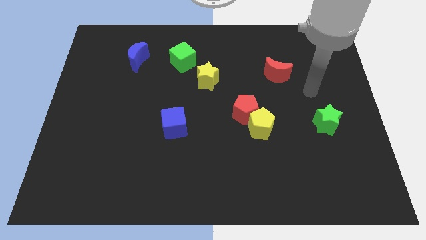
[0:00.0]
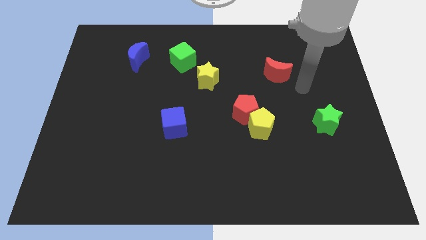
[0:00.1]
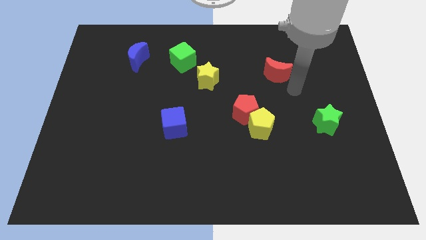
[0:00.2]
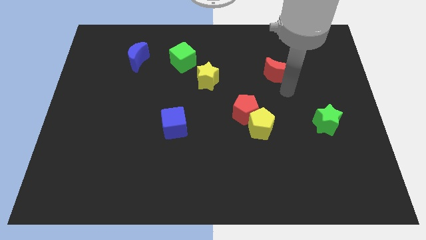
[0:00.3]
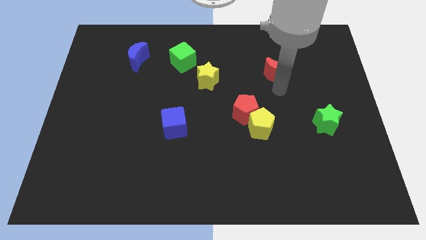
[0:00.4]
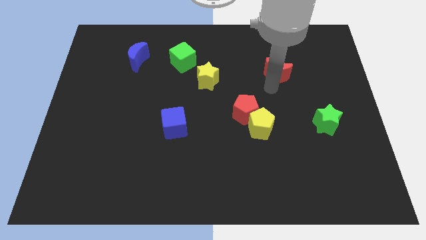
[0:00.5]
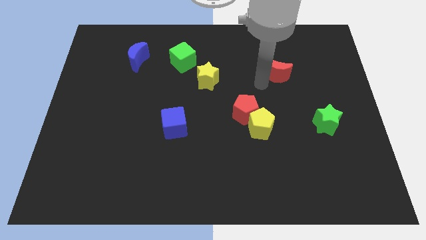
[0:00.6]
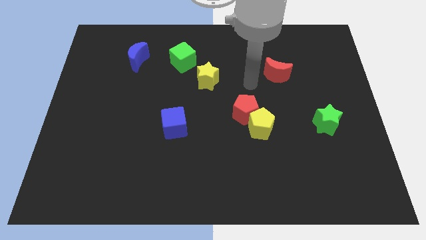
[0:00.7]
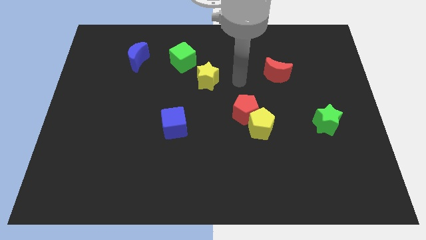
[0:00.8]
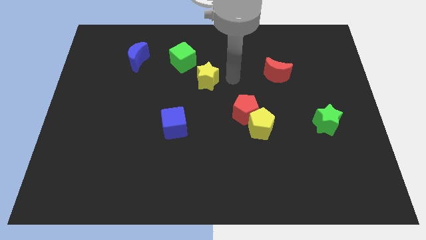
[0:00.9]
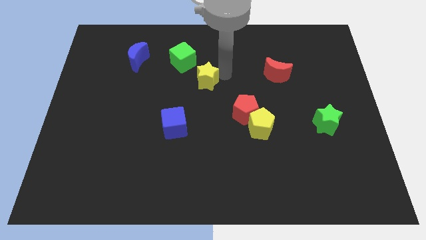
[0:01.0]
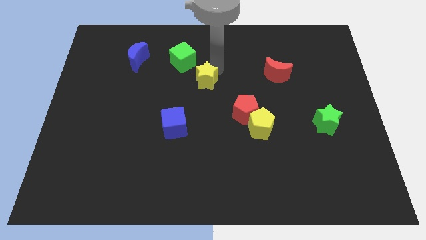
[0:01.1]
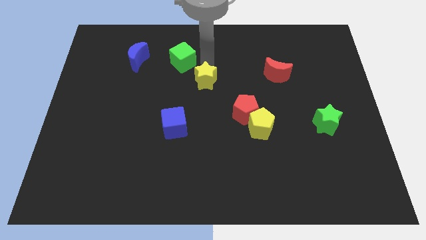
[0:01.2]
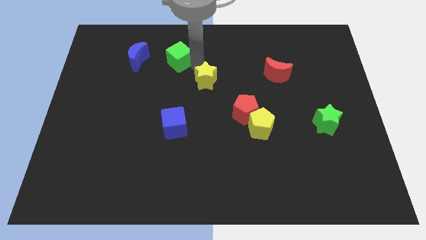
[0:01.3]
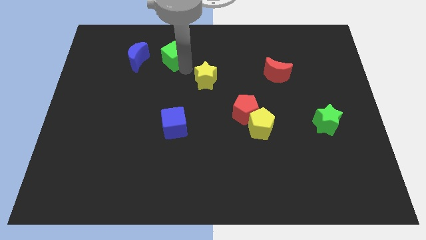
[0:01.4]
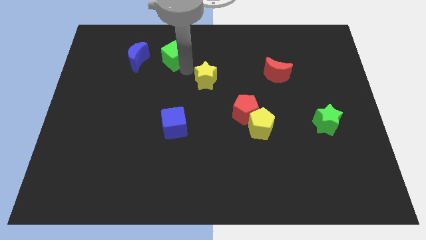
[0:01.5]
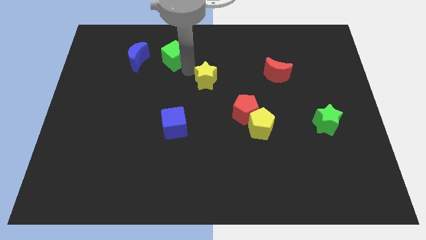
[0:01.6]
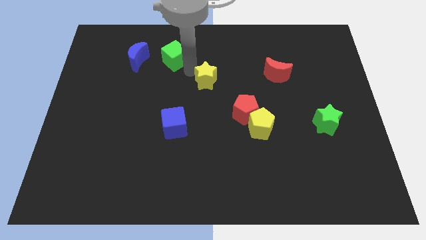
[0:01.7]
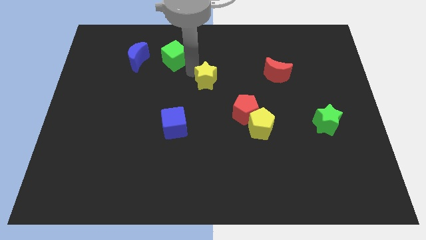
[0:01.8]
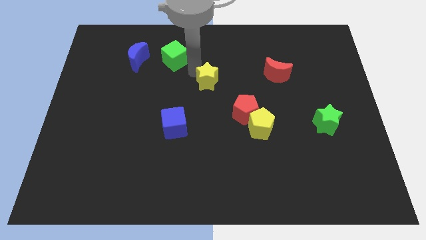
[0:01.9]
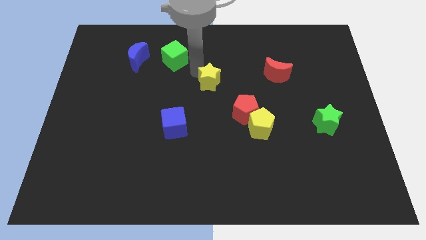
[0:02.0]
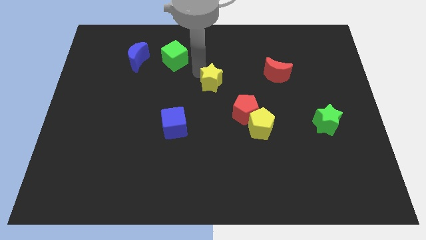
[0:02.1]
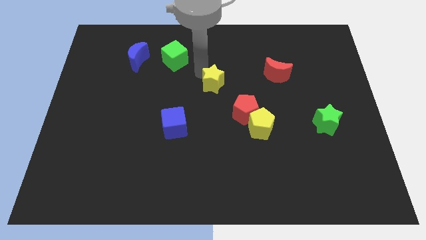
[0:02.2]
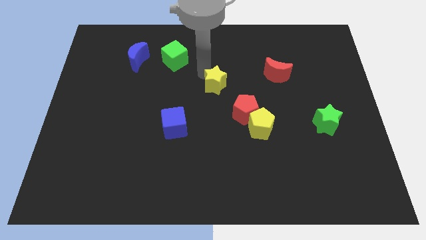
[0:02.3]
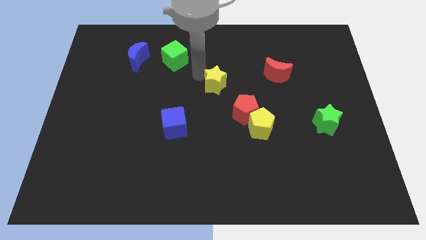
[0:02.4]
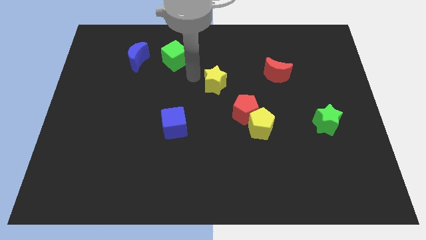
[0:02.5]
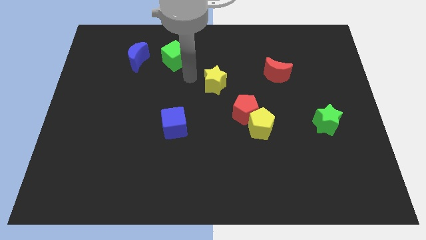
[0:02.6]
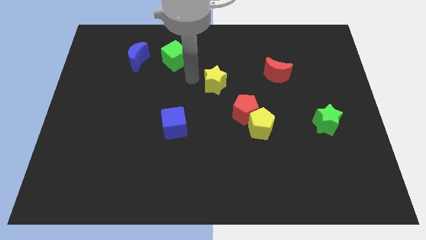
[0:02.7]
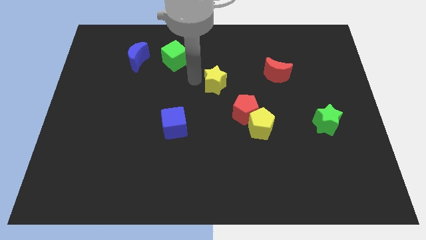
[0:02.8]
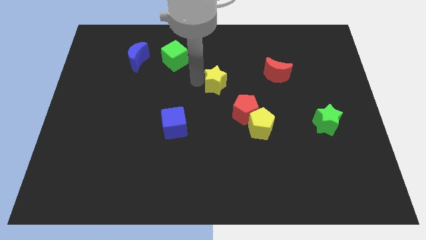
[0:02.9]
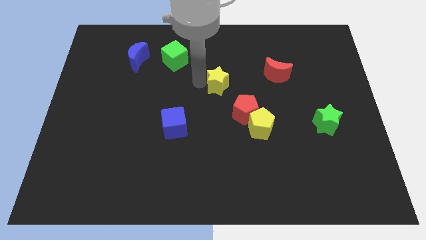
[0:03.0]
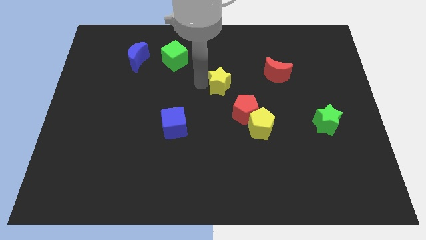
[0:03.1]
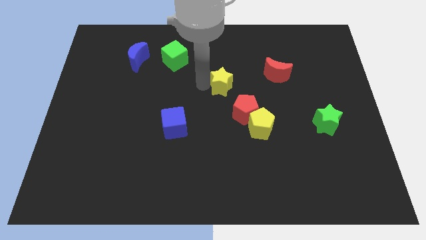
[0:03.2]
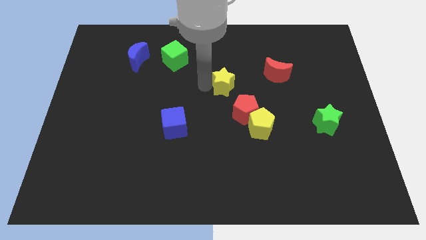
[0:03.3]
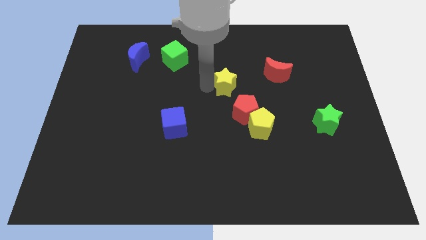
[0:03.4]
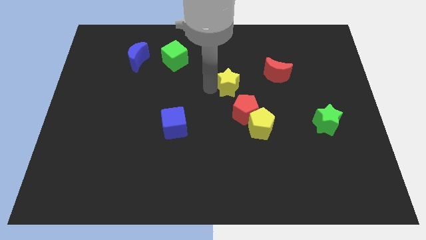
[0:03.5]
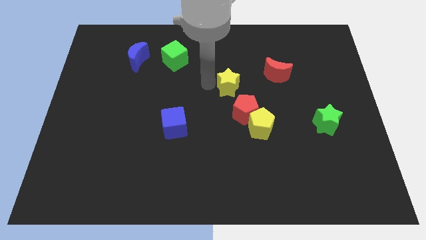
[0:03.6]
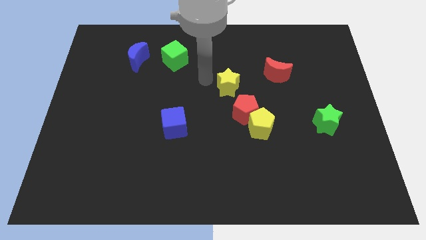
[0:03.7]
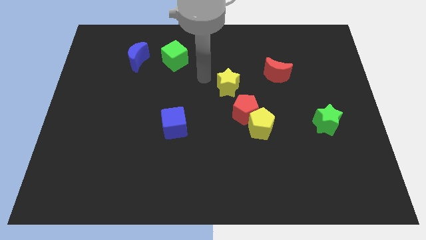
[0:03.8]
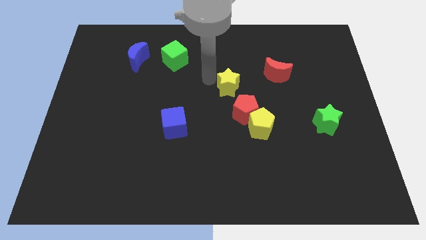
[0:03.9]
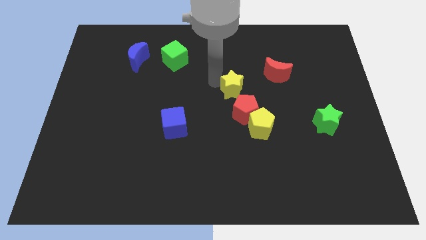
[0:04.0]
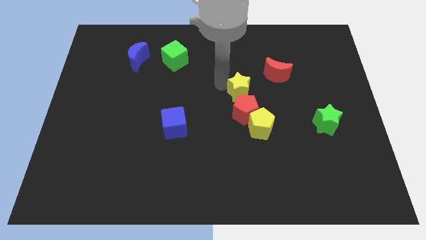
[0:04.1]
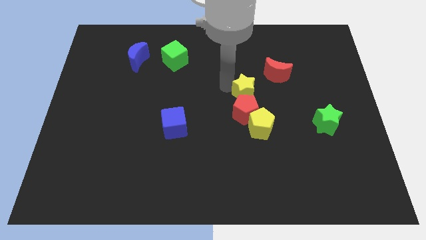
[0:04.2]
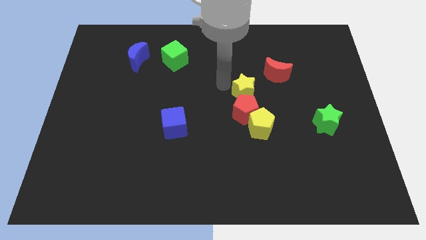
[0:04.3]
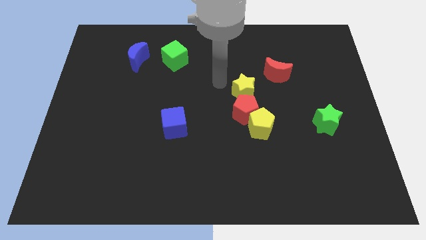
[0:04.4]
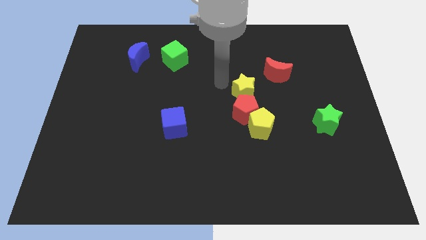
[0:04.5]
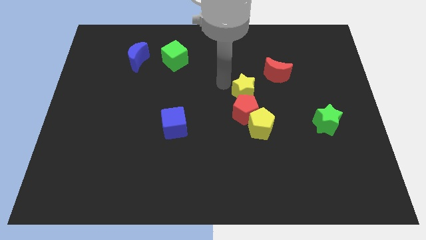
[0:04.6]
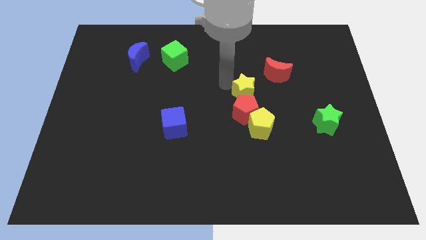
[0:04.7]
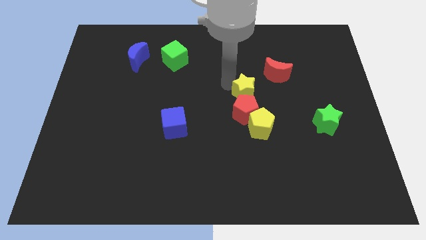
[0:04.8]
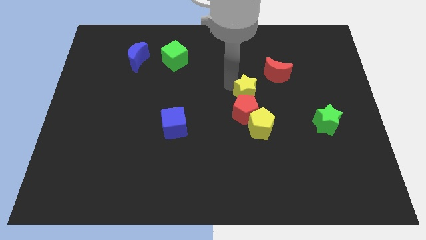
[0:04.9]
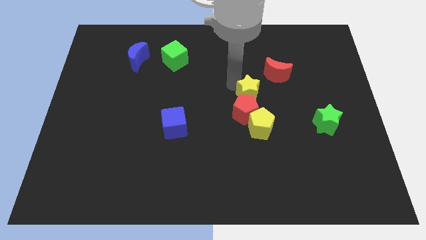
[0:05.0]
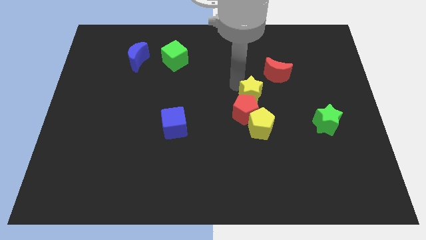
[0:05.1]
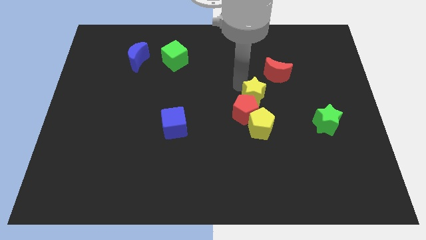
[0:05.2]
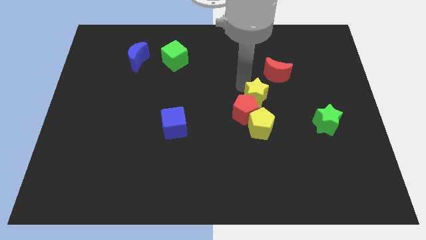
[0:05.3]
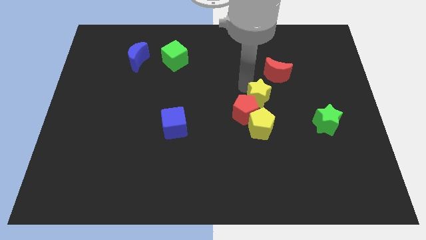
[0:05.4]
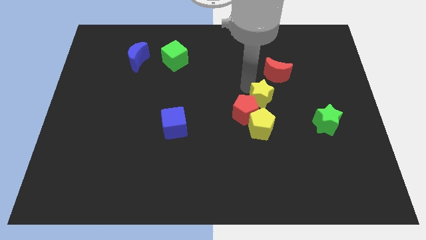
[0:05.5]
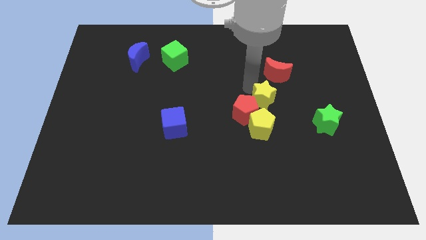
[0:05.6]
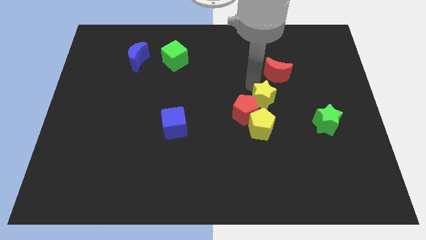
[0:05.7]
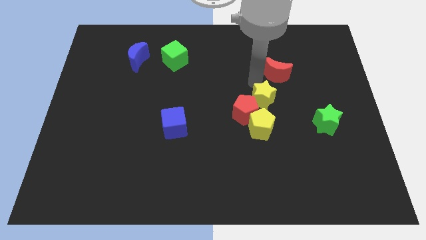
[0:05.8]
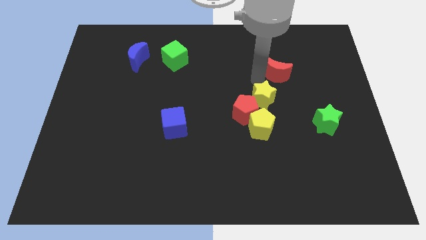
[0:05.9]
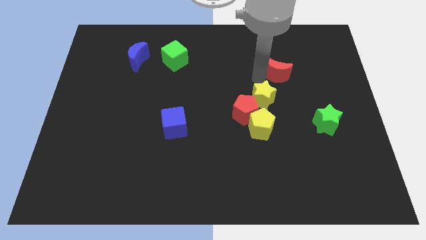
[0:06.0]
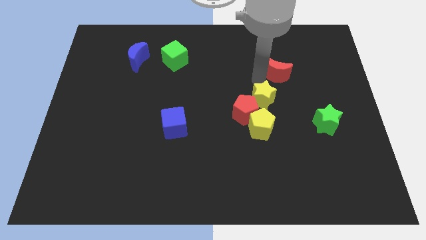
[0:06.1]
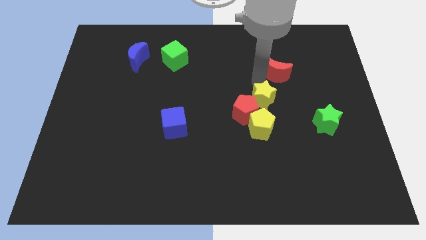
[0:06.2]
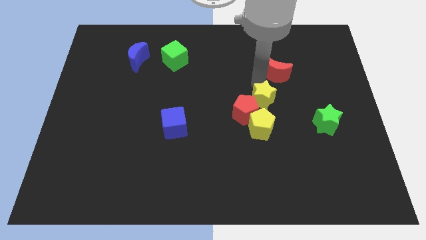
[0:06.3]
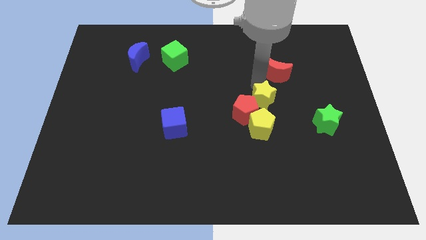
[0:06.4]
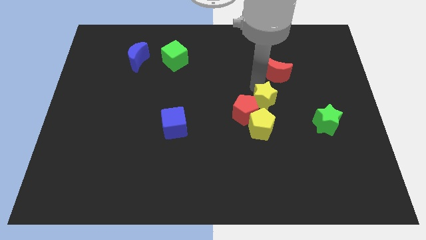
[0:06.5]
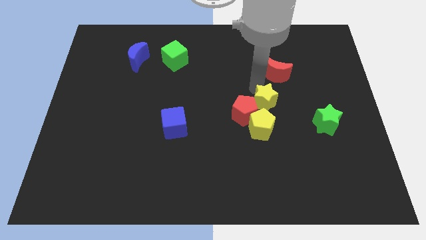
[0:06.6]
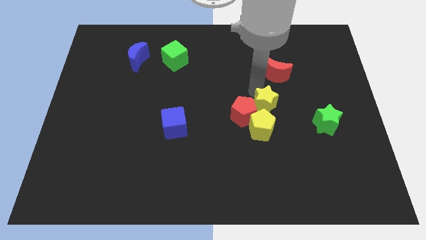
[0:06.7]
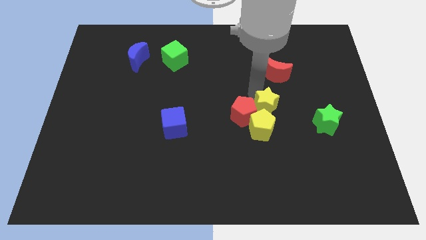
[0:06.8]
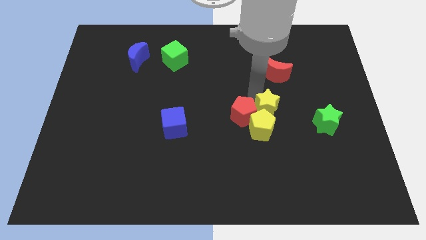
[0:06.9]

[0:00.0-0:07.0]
put the yellow star close to the yellow pentagon

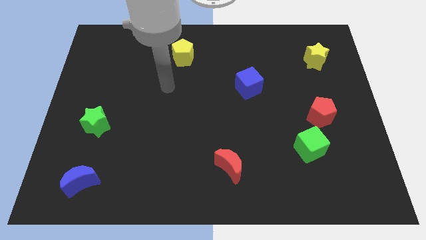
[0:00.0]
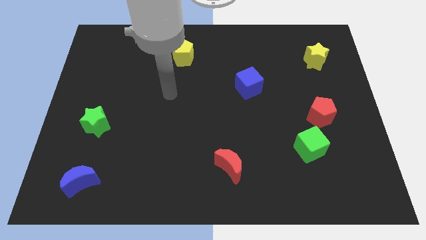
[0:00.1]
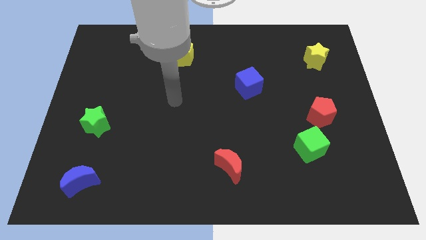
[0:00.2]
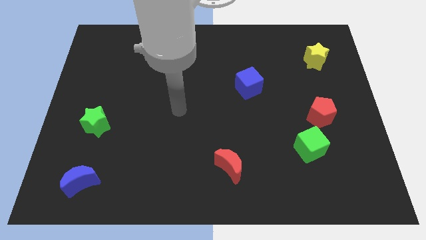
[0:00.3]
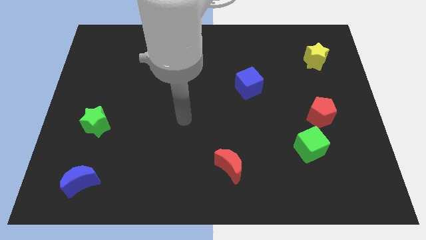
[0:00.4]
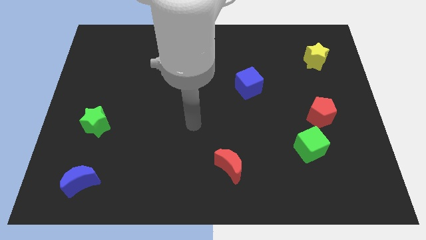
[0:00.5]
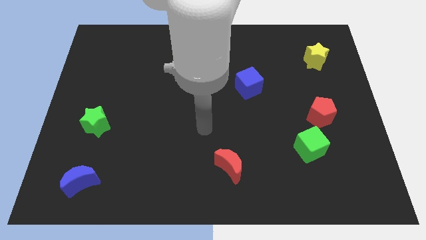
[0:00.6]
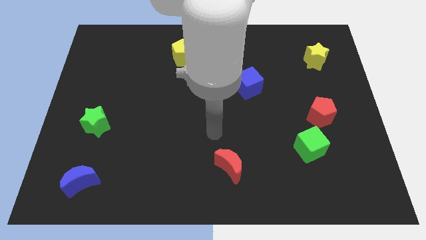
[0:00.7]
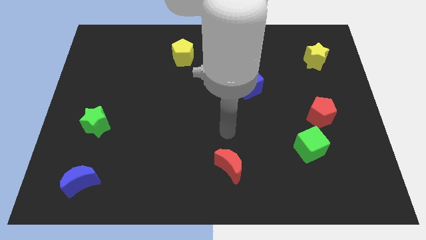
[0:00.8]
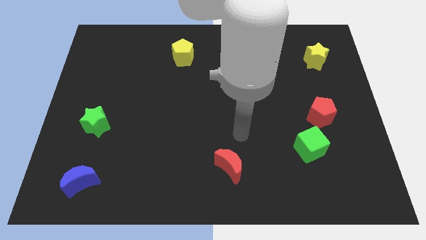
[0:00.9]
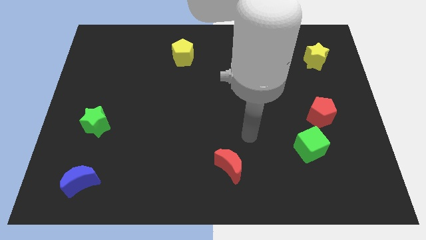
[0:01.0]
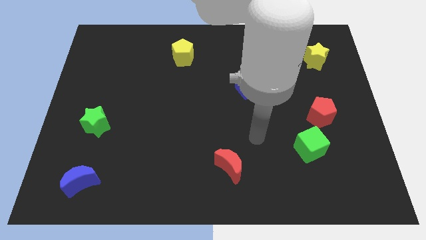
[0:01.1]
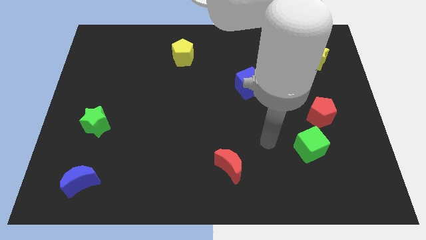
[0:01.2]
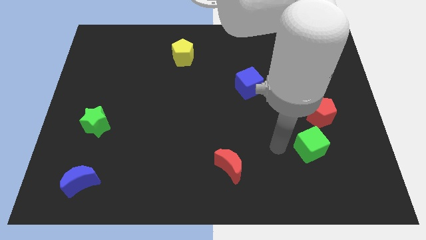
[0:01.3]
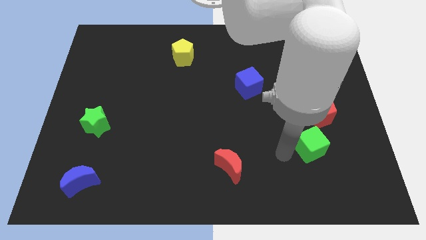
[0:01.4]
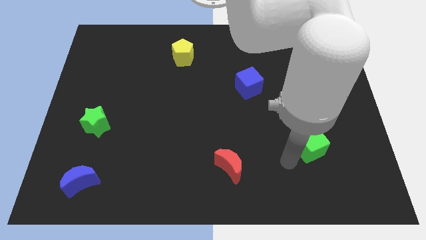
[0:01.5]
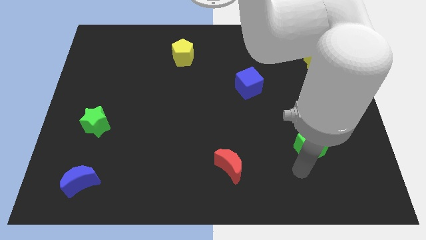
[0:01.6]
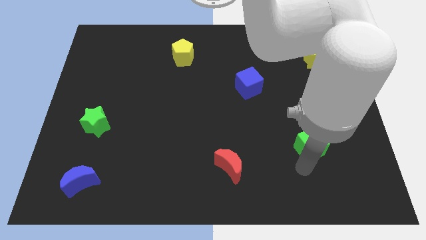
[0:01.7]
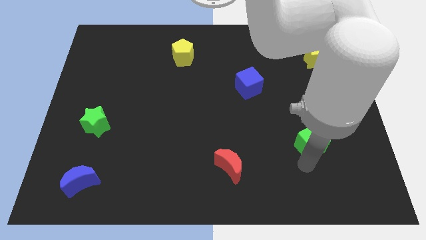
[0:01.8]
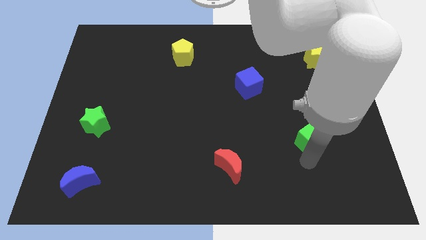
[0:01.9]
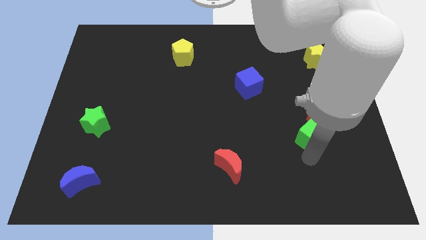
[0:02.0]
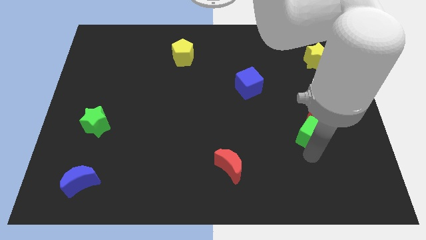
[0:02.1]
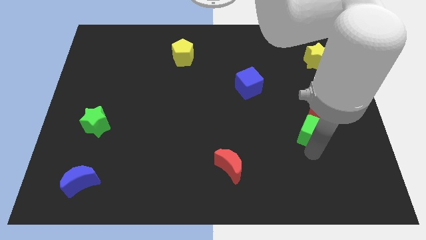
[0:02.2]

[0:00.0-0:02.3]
push the green cube close to the red pentagon
